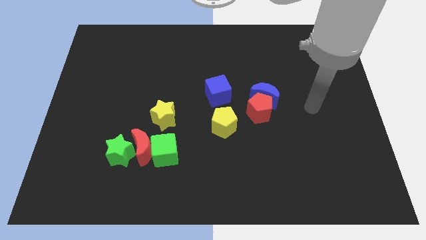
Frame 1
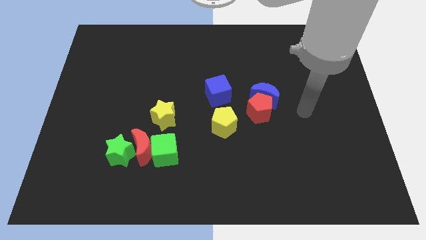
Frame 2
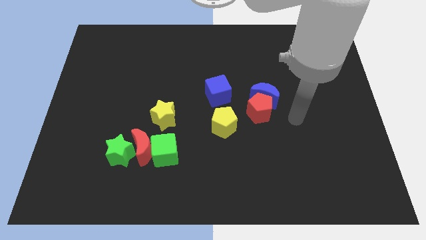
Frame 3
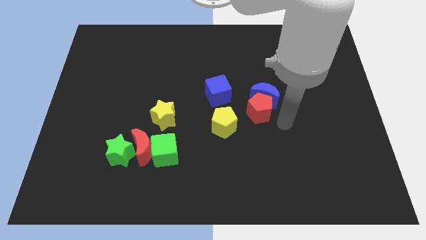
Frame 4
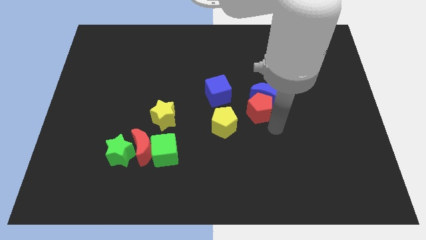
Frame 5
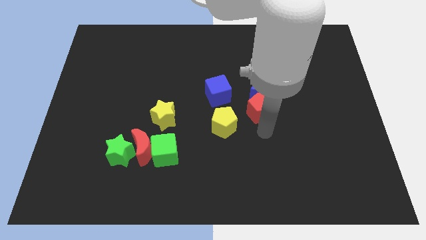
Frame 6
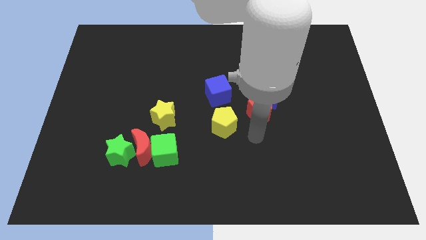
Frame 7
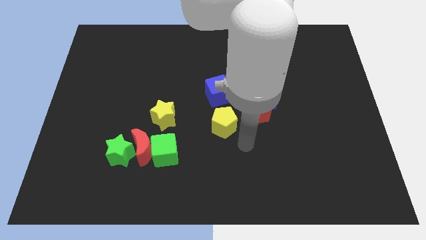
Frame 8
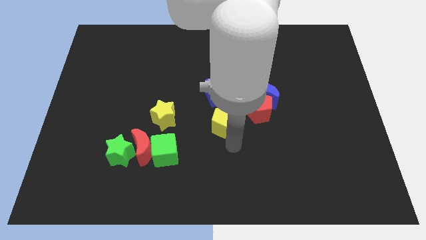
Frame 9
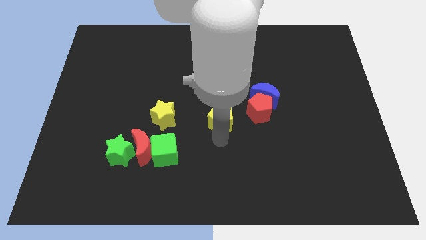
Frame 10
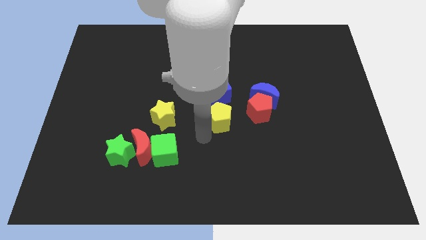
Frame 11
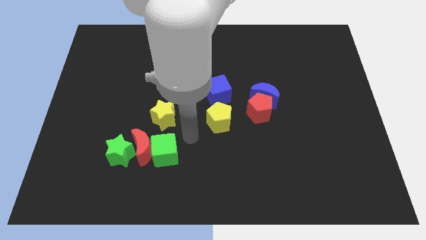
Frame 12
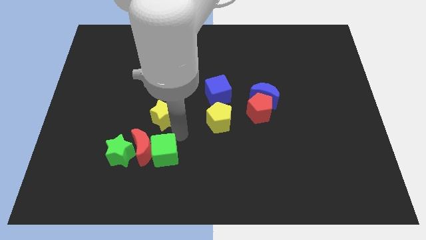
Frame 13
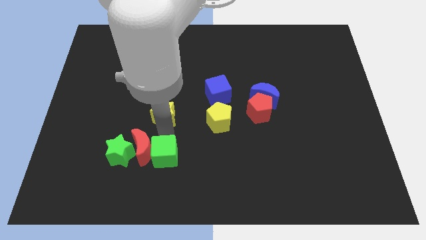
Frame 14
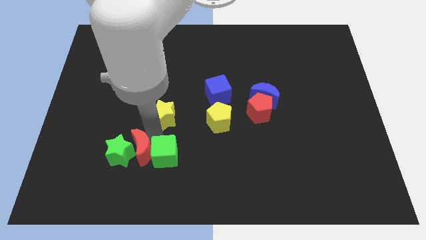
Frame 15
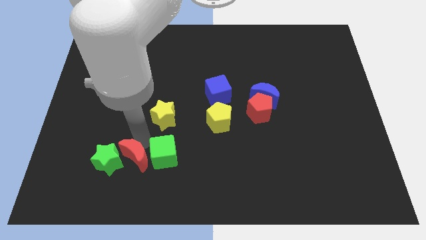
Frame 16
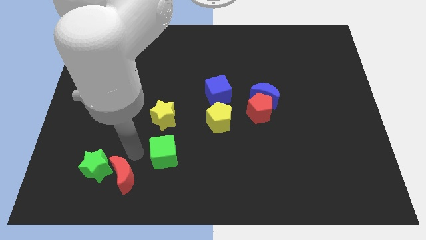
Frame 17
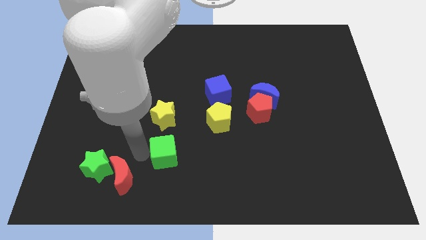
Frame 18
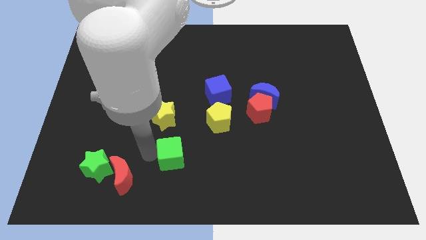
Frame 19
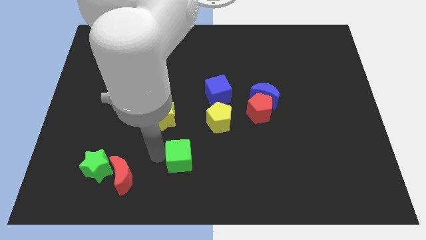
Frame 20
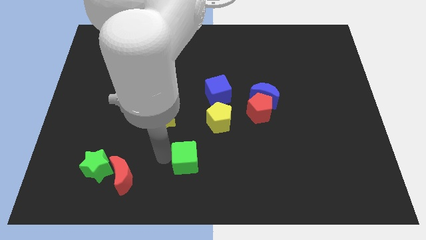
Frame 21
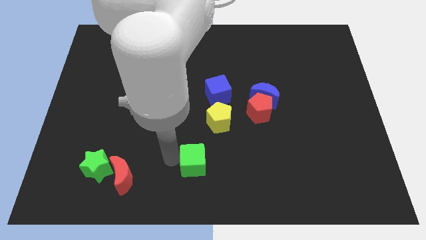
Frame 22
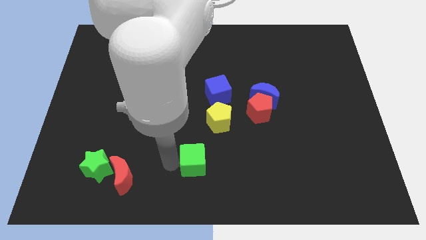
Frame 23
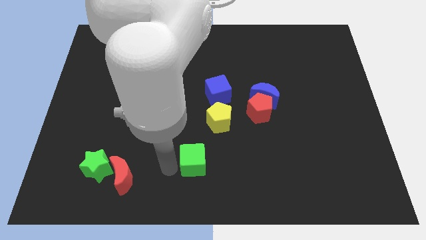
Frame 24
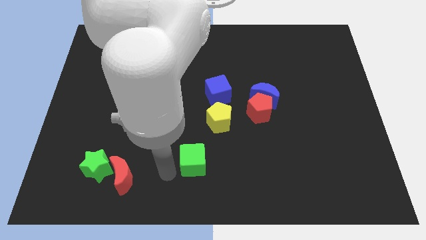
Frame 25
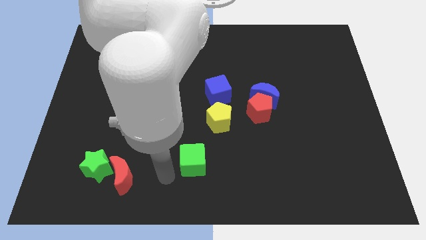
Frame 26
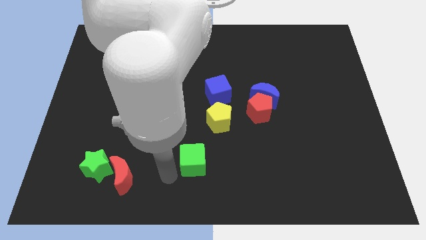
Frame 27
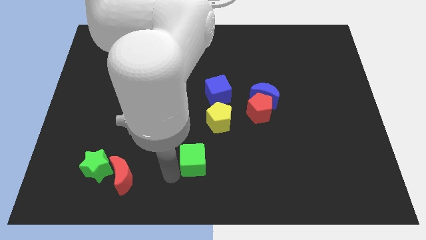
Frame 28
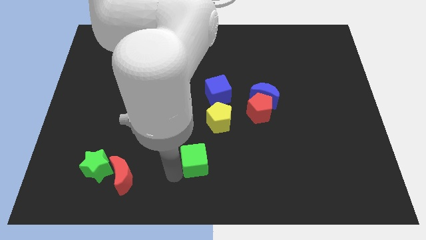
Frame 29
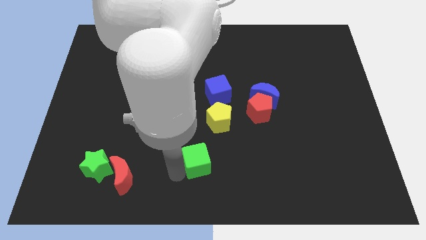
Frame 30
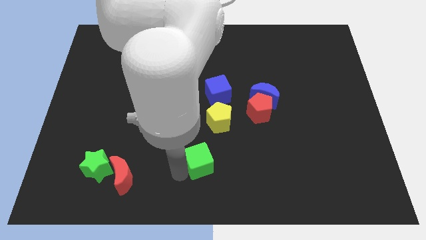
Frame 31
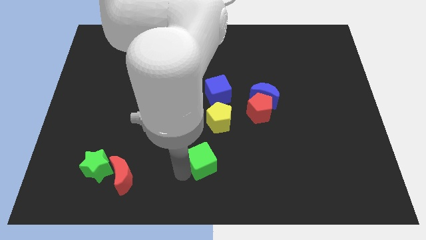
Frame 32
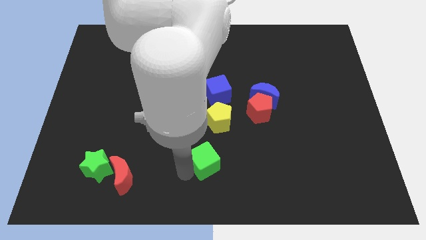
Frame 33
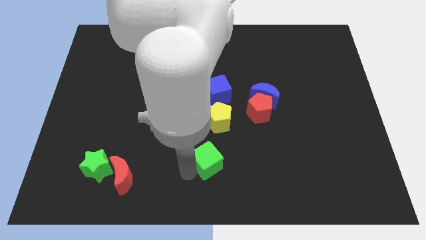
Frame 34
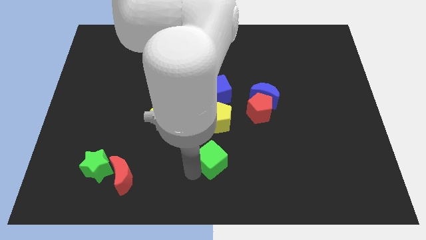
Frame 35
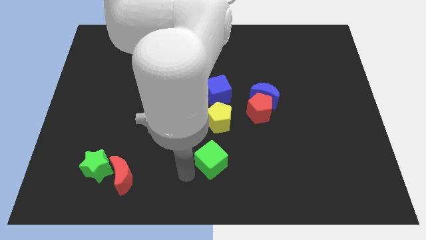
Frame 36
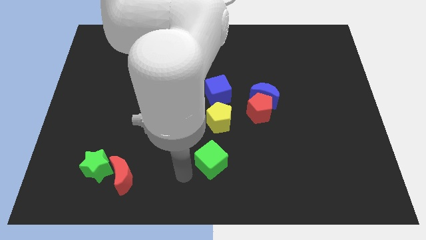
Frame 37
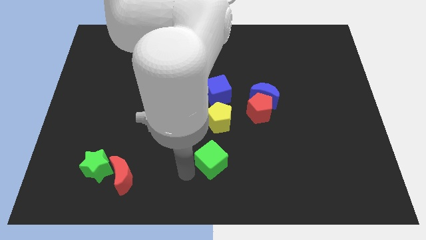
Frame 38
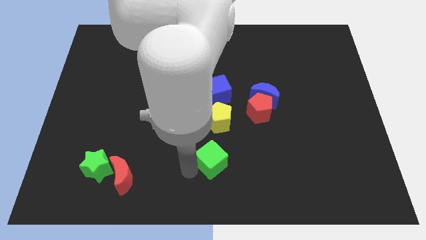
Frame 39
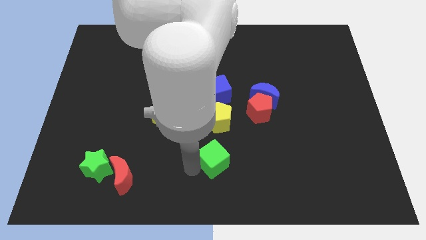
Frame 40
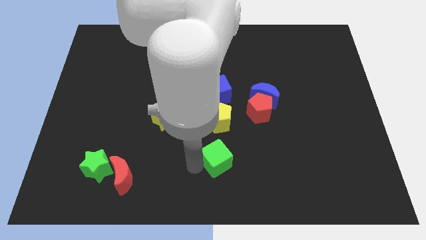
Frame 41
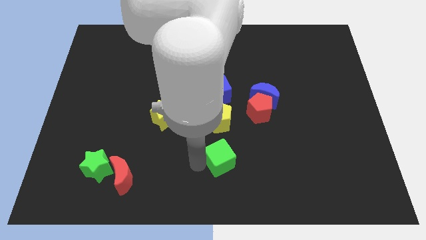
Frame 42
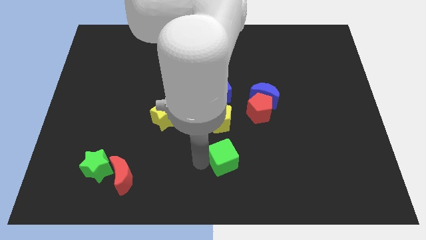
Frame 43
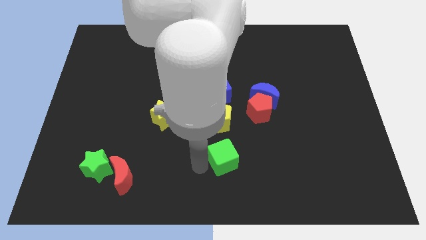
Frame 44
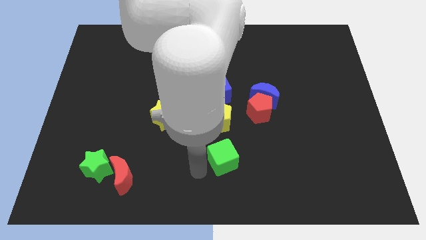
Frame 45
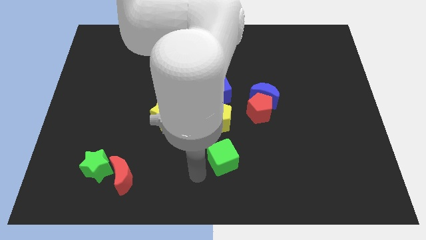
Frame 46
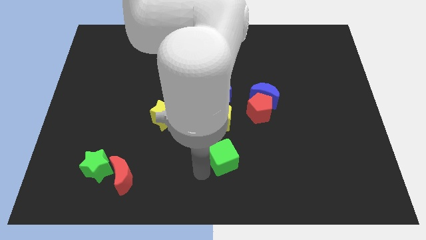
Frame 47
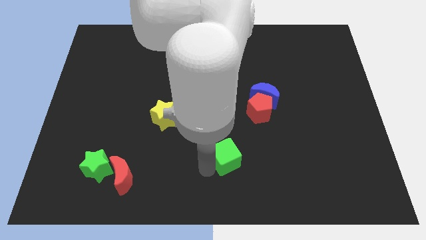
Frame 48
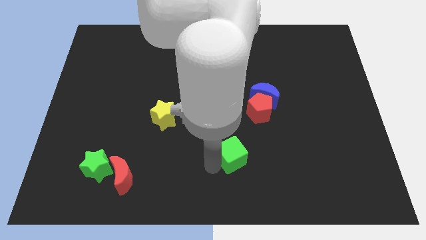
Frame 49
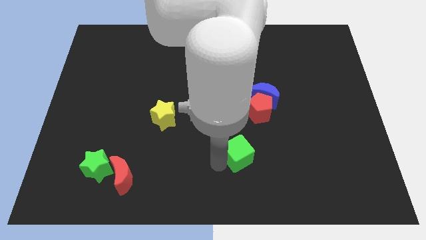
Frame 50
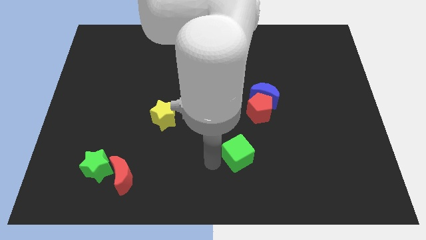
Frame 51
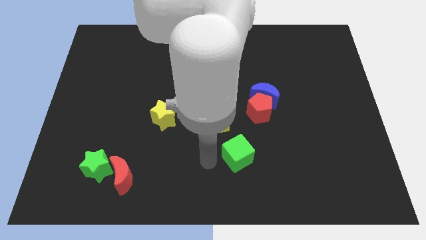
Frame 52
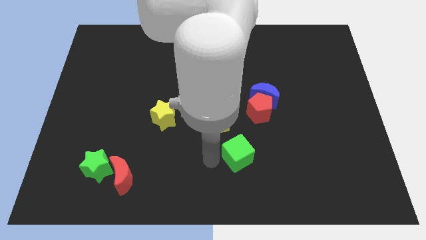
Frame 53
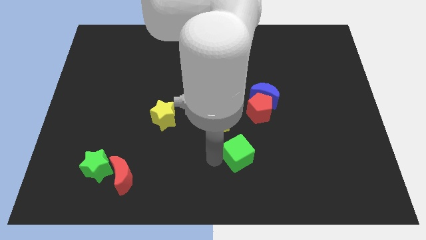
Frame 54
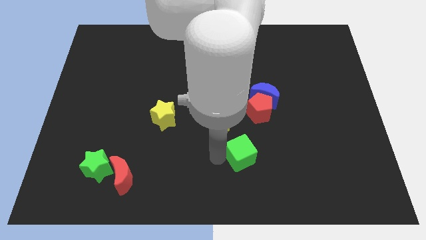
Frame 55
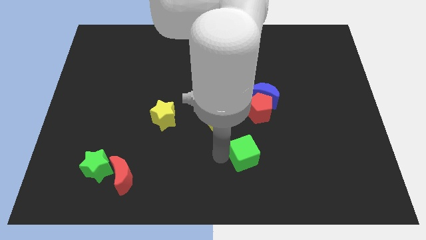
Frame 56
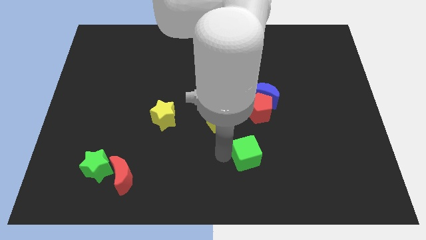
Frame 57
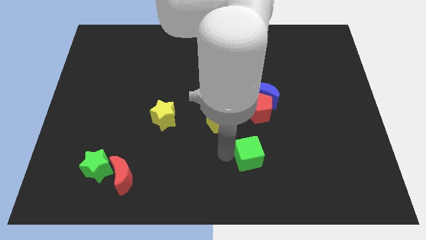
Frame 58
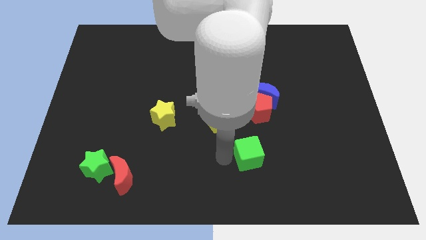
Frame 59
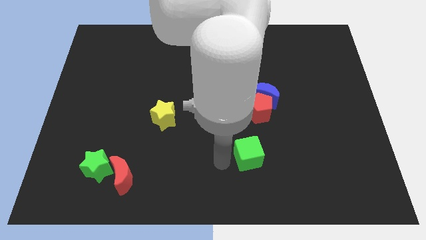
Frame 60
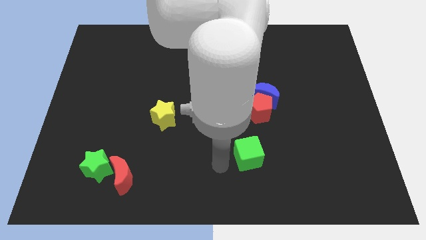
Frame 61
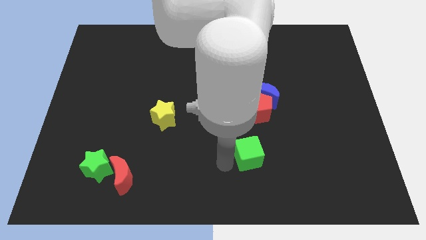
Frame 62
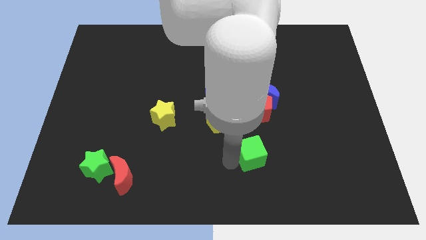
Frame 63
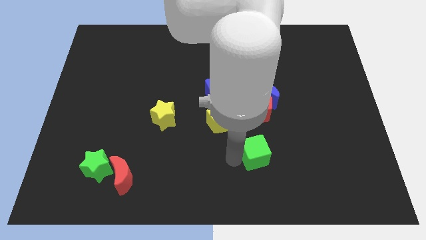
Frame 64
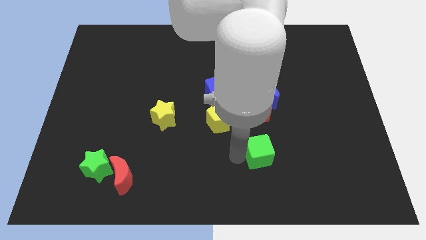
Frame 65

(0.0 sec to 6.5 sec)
push the green cube to the right

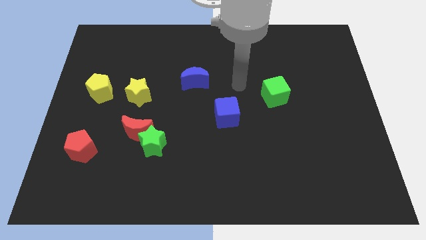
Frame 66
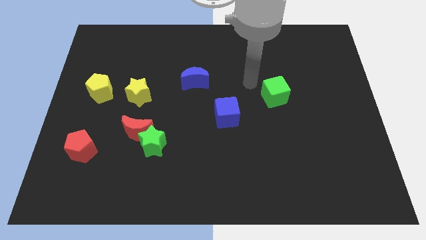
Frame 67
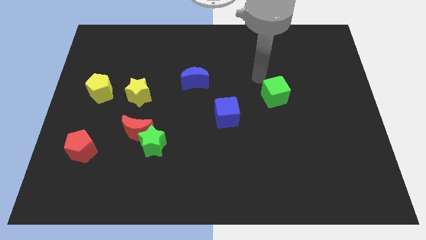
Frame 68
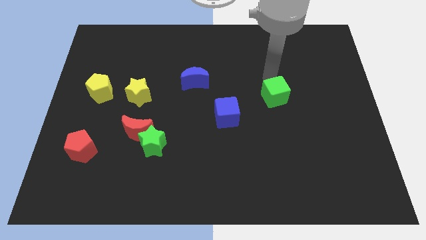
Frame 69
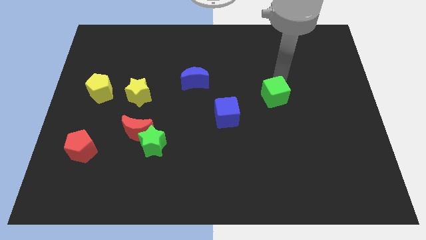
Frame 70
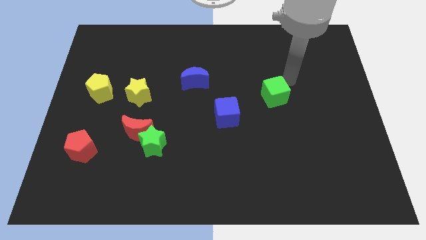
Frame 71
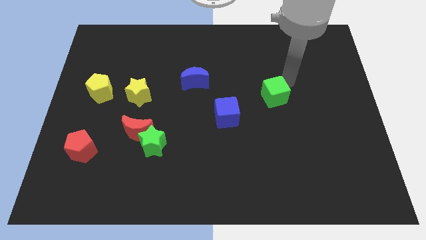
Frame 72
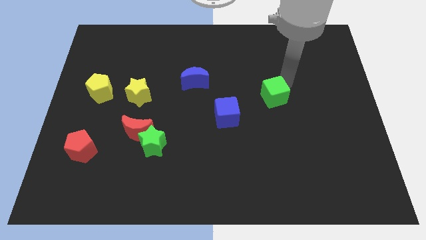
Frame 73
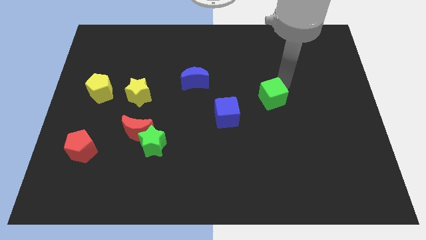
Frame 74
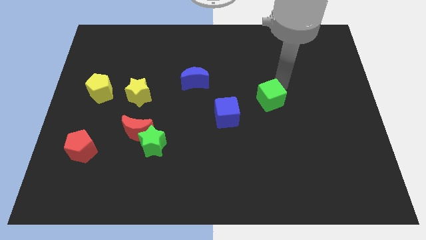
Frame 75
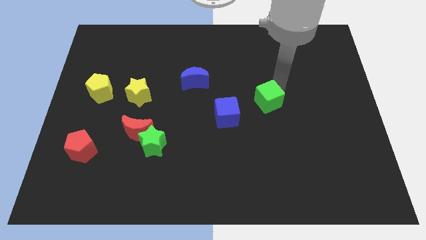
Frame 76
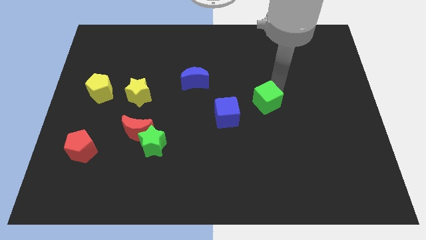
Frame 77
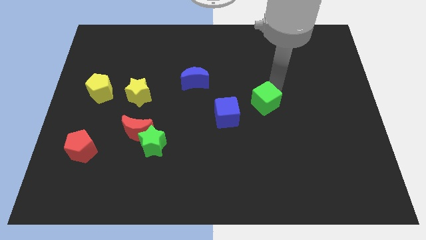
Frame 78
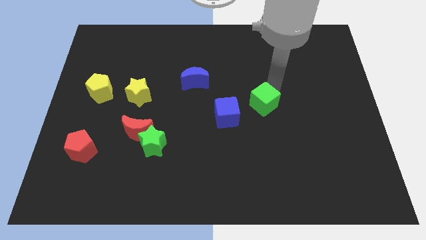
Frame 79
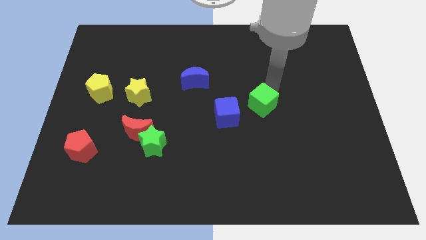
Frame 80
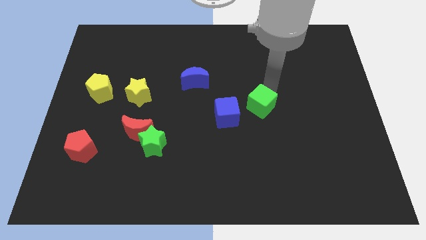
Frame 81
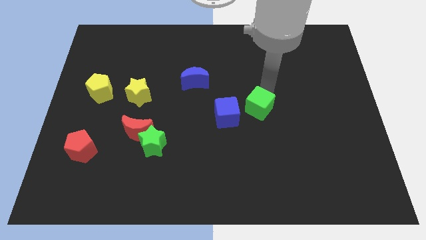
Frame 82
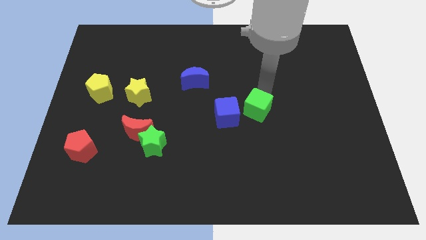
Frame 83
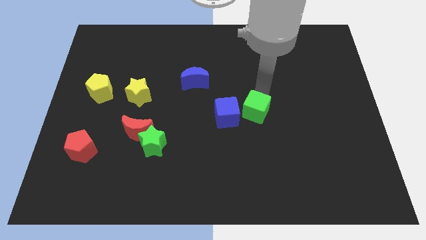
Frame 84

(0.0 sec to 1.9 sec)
push the green cube a little bit diagonally down and to the left
